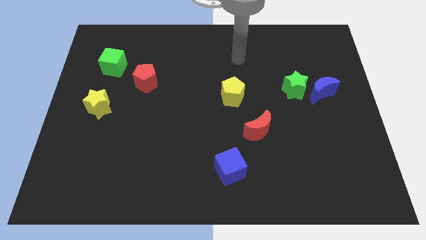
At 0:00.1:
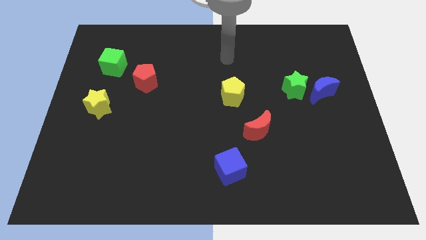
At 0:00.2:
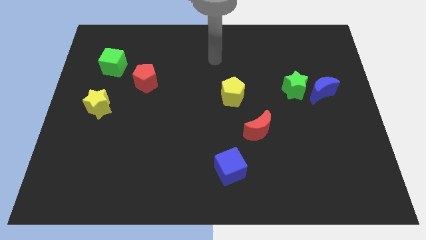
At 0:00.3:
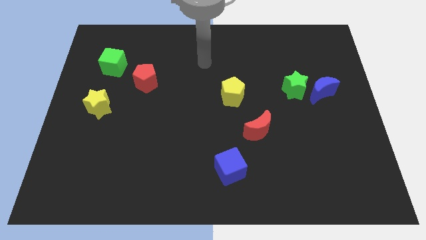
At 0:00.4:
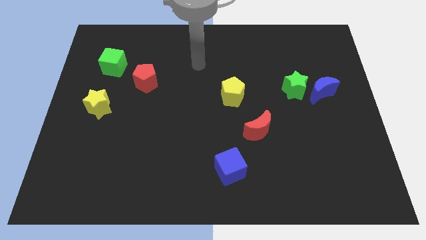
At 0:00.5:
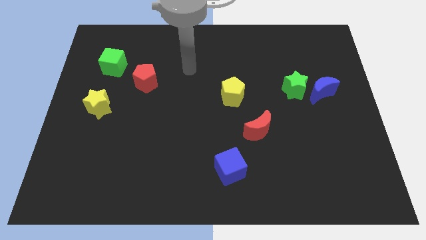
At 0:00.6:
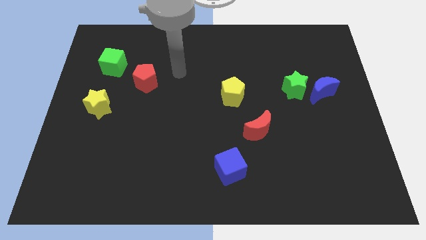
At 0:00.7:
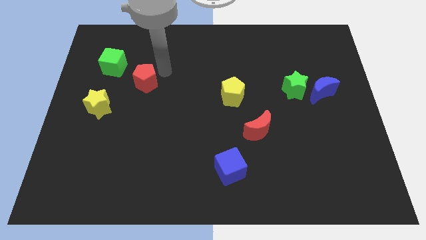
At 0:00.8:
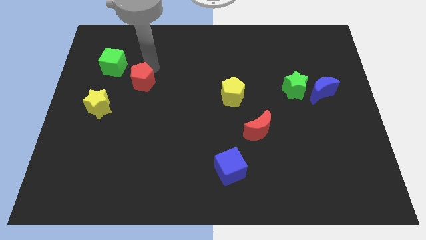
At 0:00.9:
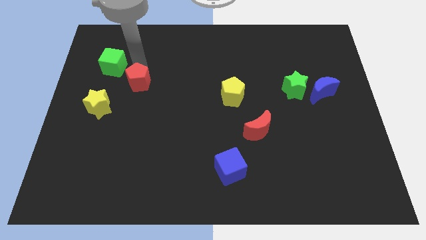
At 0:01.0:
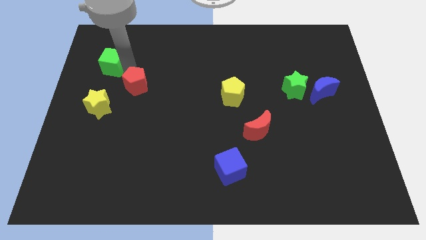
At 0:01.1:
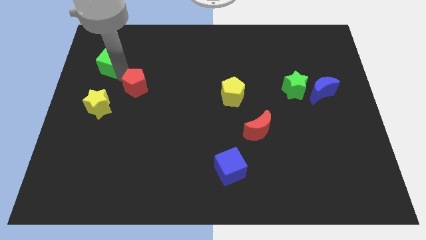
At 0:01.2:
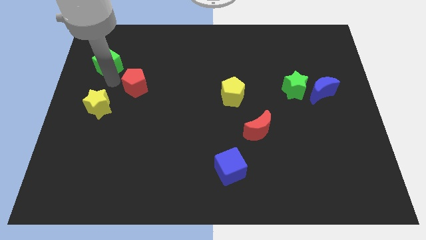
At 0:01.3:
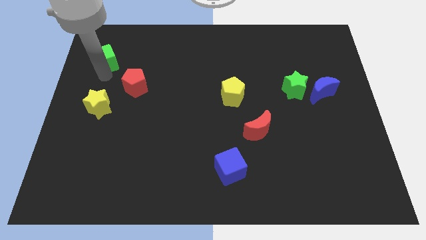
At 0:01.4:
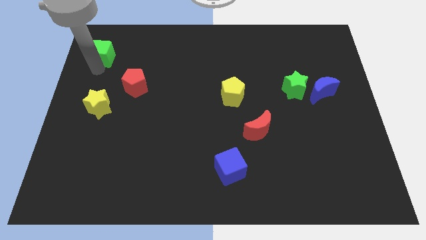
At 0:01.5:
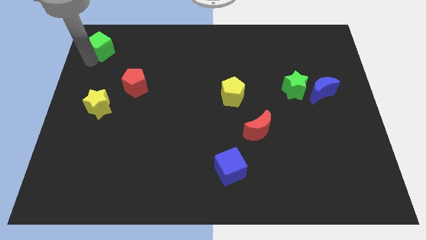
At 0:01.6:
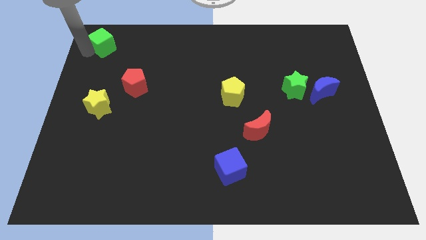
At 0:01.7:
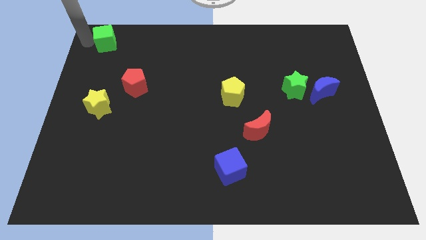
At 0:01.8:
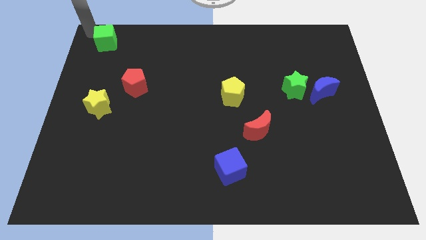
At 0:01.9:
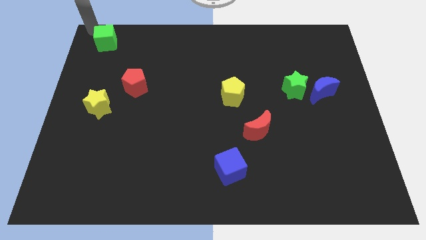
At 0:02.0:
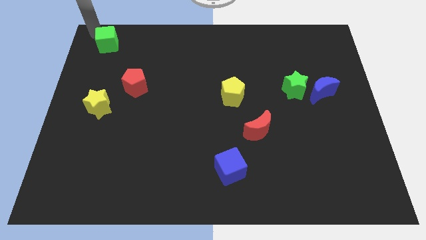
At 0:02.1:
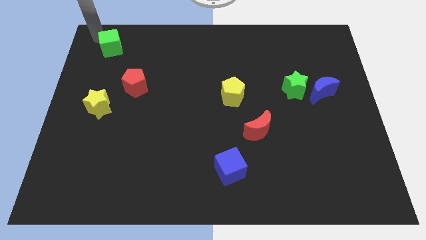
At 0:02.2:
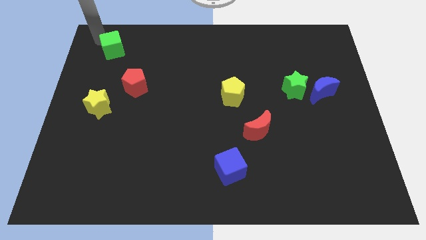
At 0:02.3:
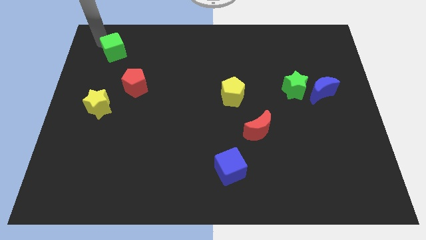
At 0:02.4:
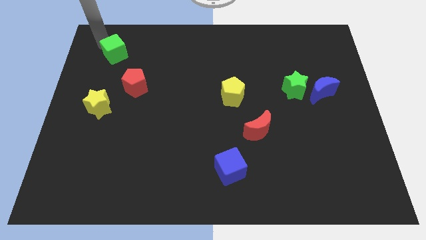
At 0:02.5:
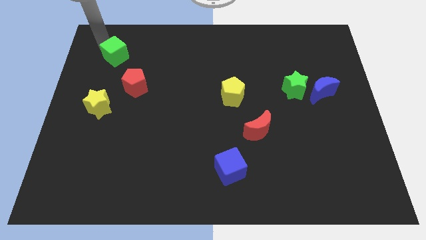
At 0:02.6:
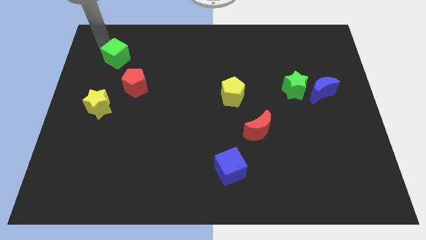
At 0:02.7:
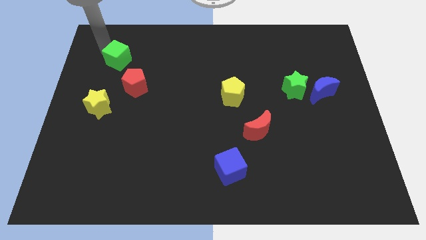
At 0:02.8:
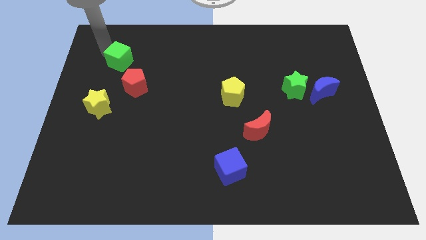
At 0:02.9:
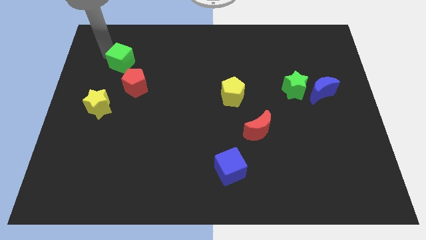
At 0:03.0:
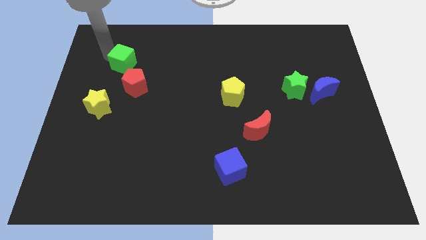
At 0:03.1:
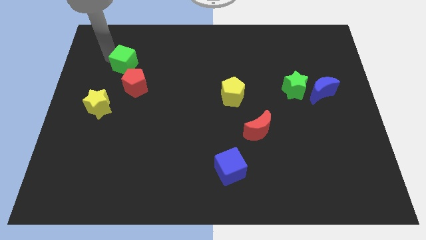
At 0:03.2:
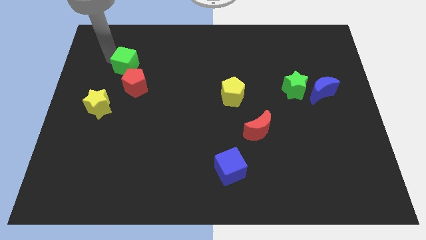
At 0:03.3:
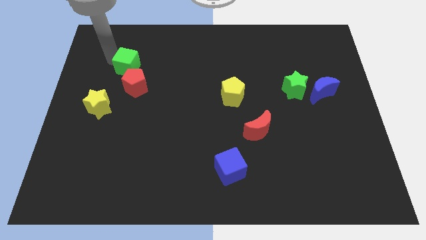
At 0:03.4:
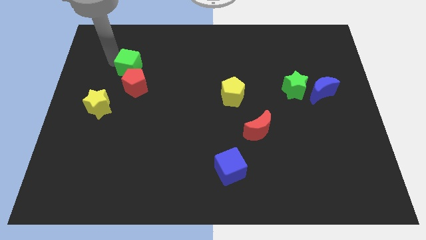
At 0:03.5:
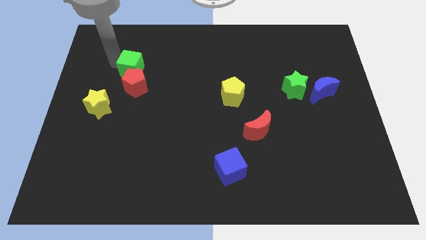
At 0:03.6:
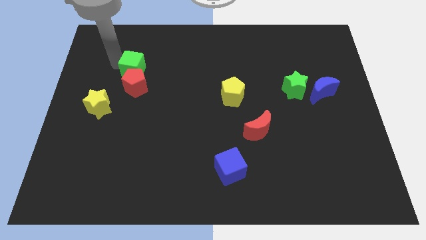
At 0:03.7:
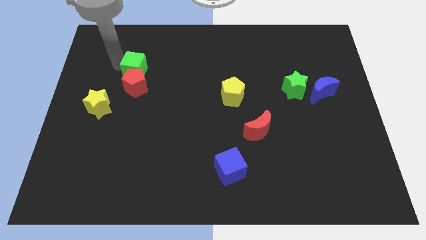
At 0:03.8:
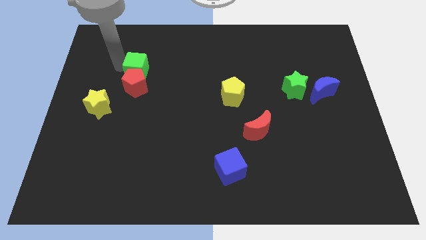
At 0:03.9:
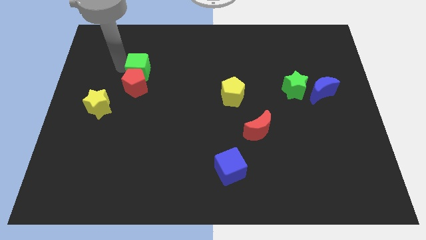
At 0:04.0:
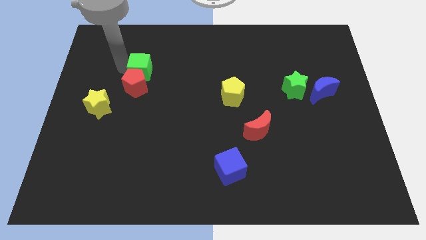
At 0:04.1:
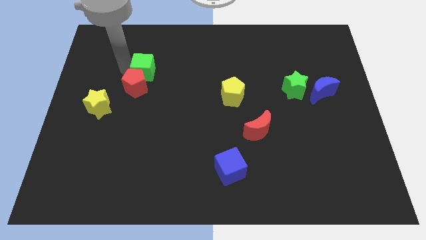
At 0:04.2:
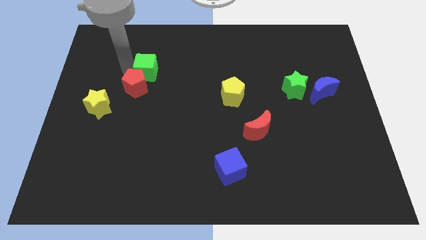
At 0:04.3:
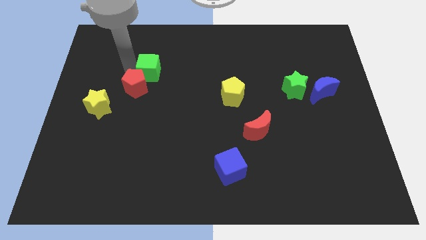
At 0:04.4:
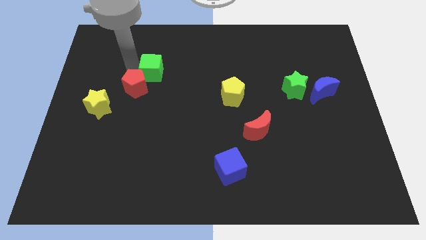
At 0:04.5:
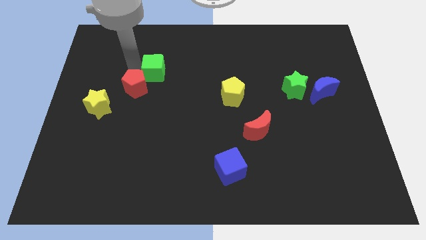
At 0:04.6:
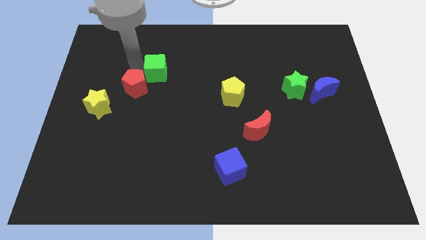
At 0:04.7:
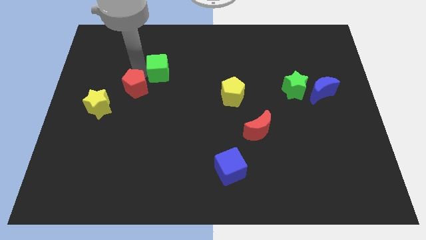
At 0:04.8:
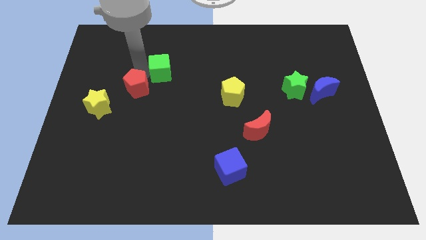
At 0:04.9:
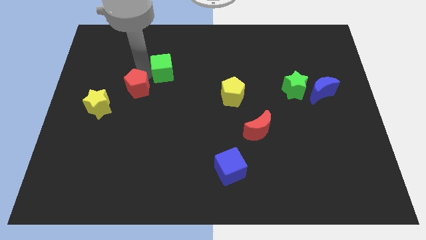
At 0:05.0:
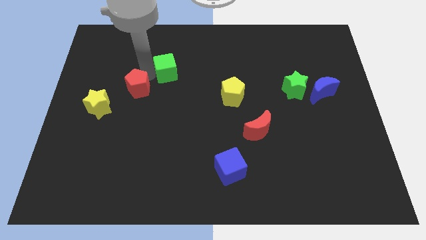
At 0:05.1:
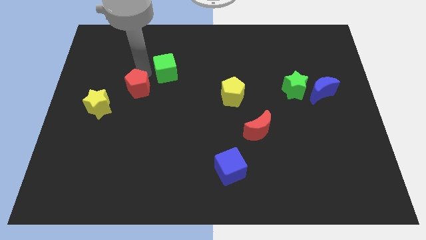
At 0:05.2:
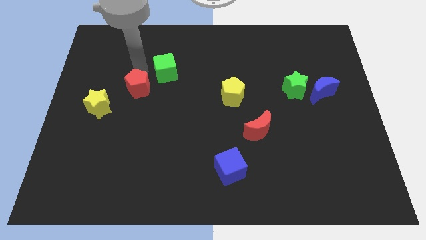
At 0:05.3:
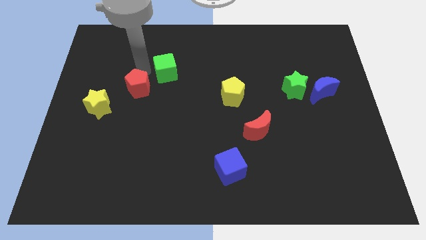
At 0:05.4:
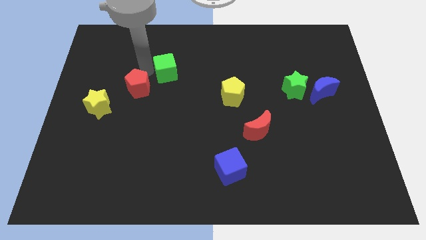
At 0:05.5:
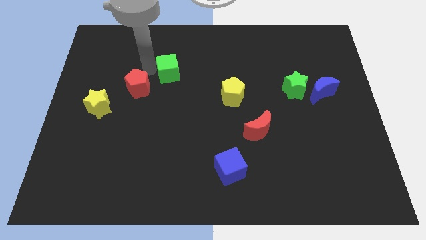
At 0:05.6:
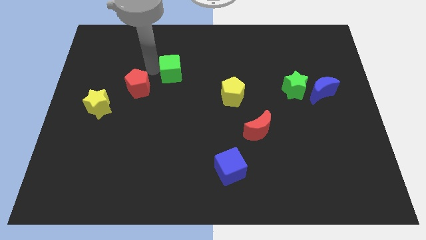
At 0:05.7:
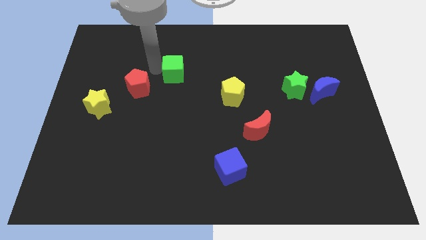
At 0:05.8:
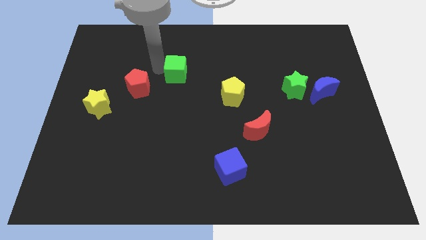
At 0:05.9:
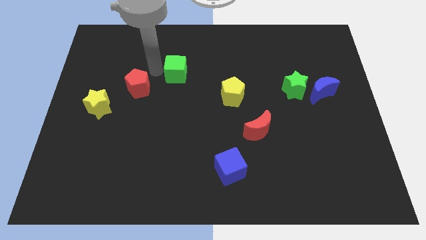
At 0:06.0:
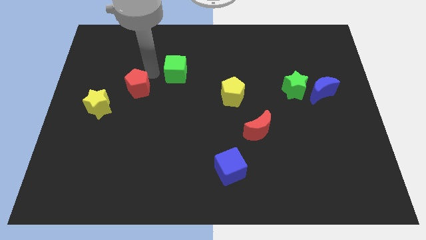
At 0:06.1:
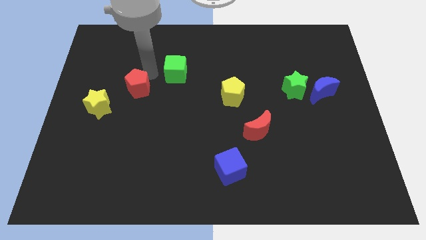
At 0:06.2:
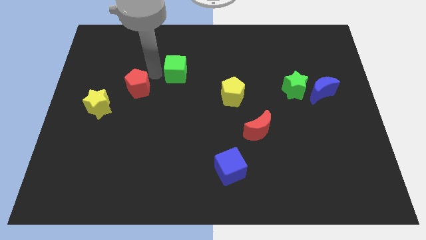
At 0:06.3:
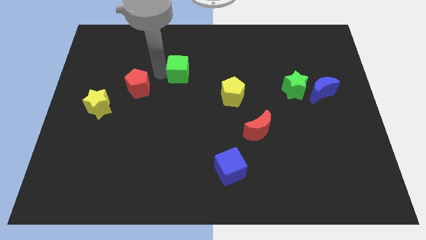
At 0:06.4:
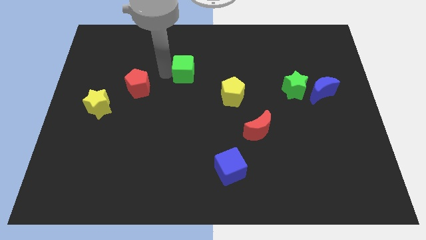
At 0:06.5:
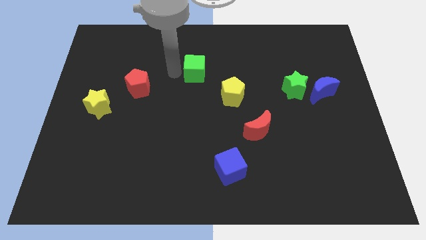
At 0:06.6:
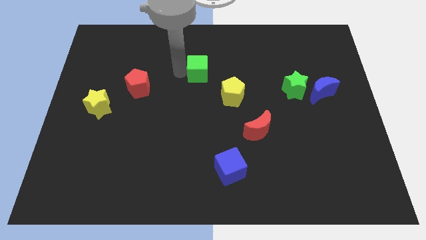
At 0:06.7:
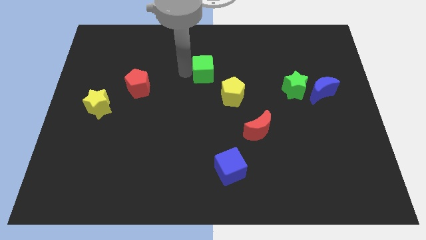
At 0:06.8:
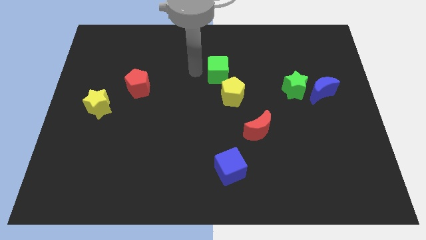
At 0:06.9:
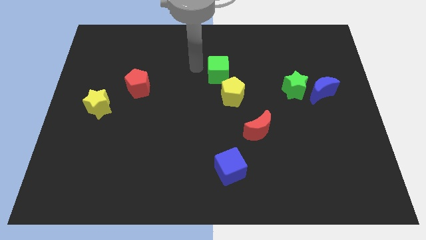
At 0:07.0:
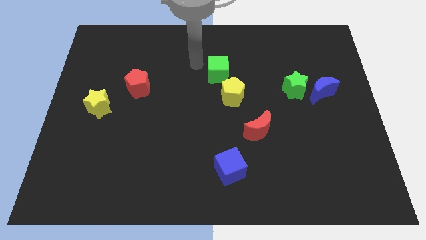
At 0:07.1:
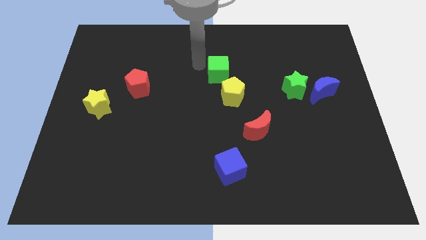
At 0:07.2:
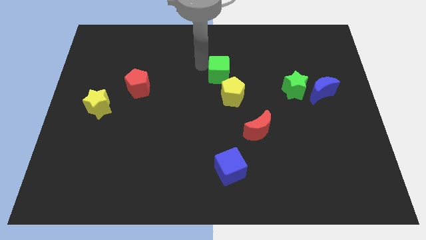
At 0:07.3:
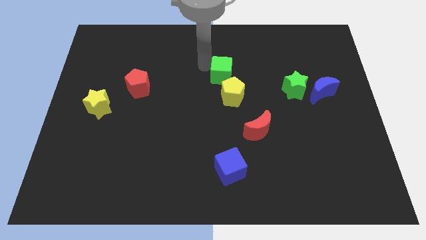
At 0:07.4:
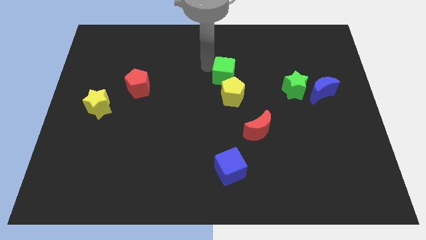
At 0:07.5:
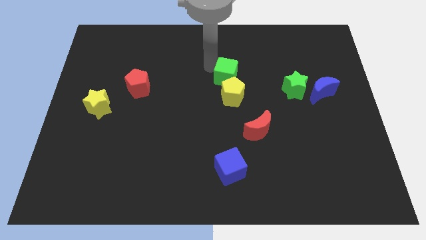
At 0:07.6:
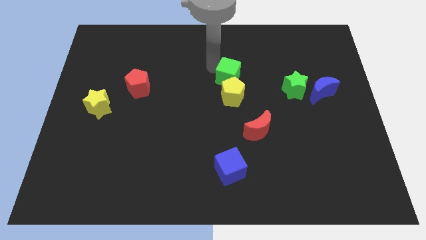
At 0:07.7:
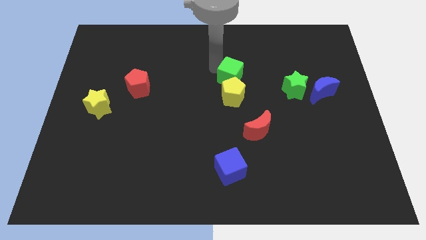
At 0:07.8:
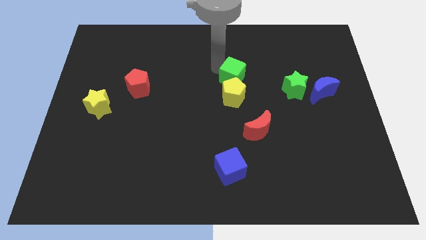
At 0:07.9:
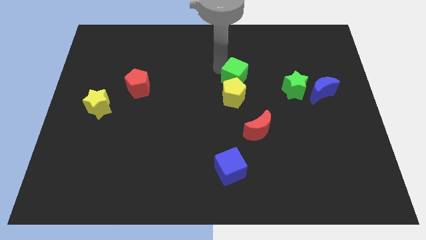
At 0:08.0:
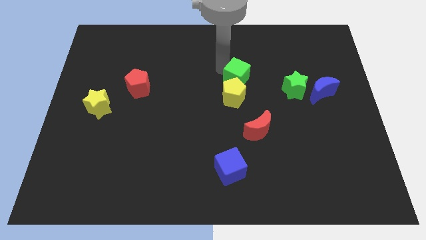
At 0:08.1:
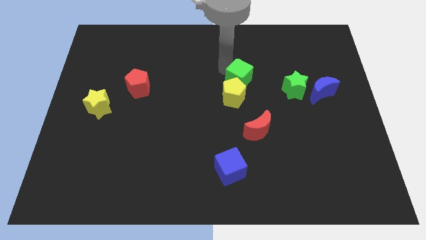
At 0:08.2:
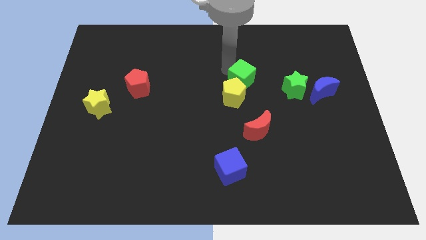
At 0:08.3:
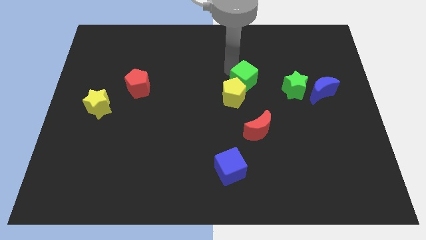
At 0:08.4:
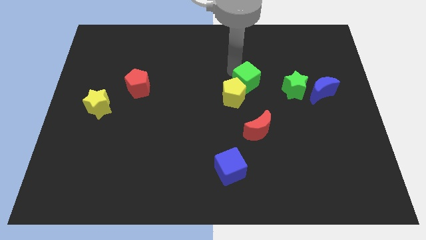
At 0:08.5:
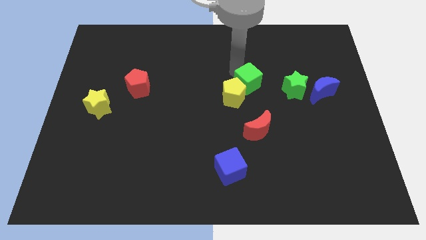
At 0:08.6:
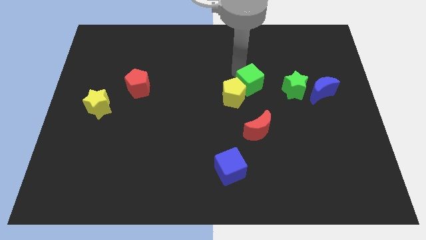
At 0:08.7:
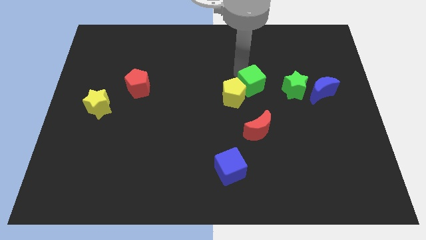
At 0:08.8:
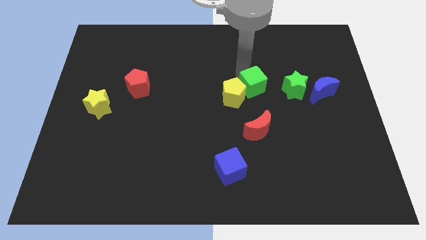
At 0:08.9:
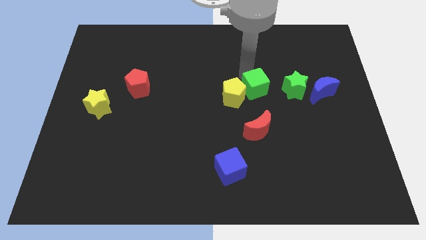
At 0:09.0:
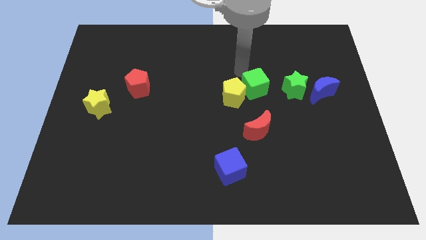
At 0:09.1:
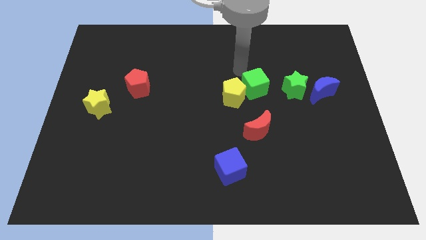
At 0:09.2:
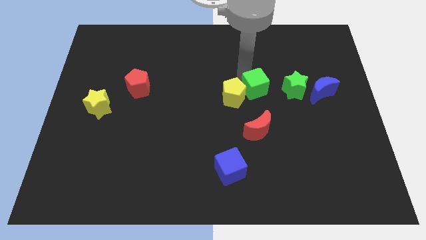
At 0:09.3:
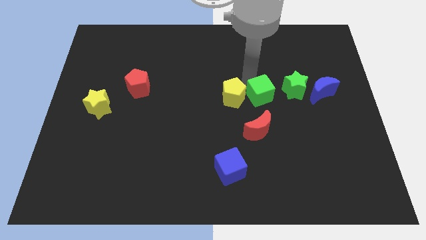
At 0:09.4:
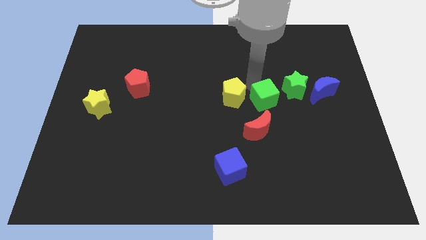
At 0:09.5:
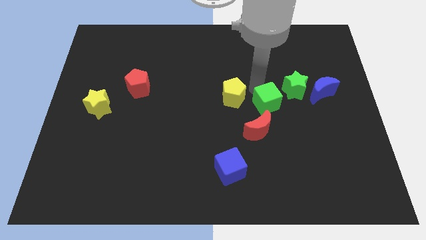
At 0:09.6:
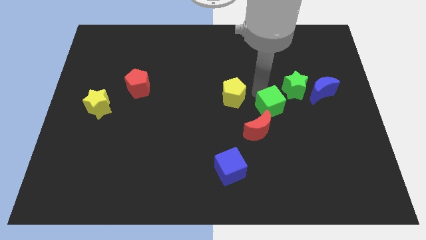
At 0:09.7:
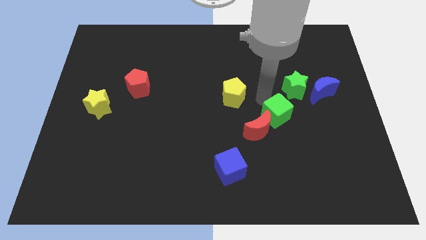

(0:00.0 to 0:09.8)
put the green cube to the bottom of the green star
